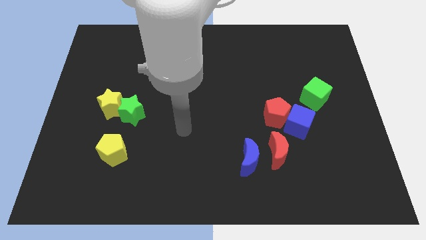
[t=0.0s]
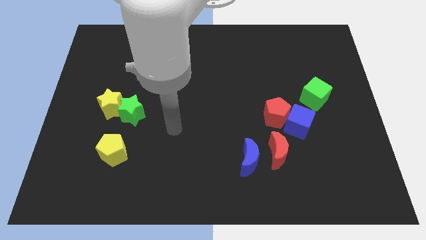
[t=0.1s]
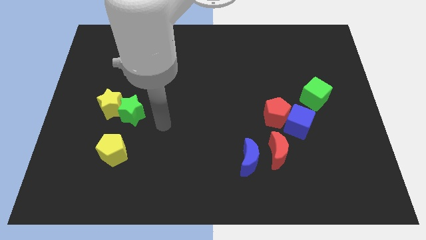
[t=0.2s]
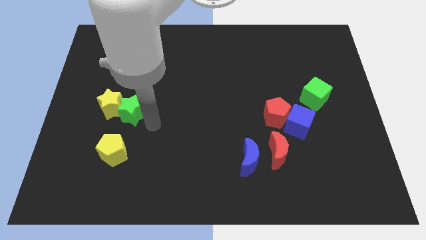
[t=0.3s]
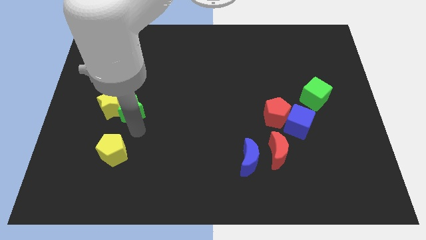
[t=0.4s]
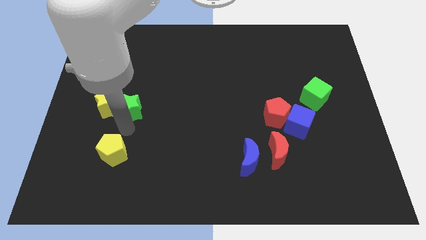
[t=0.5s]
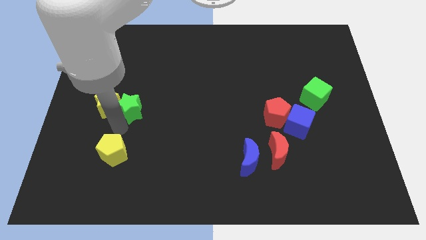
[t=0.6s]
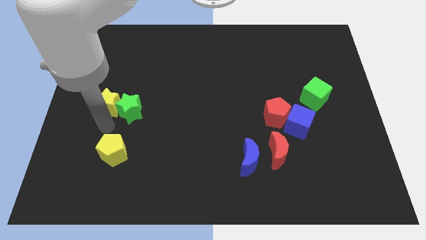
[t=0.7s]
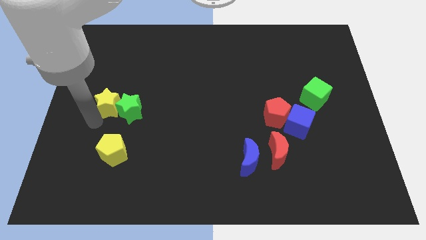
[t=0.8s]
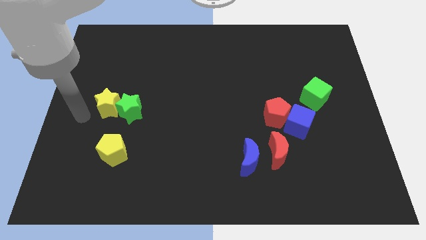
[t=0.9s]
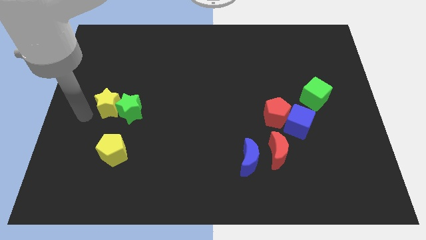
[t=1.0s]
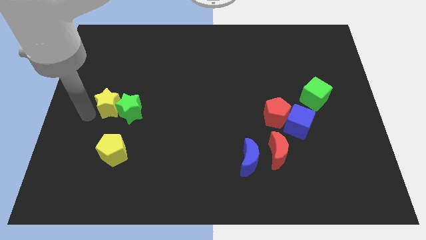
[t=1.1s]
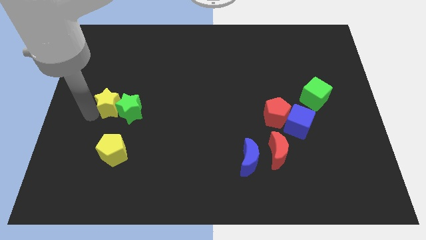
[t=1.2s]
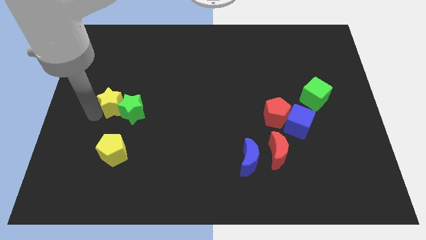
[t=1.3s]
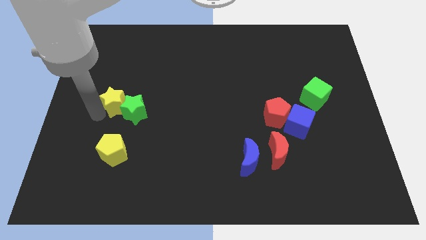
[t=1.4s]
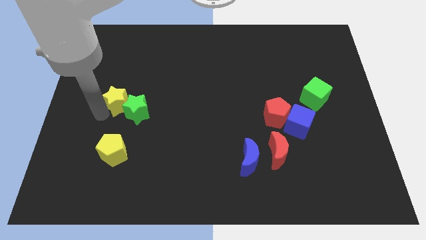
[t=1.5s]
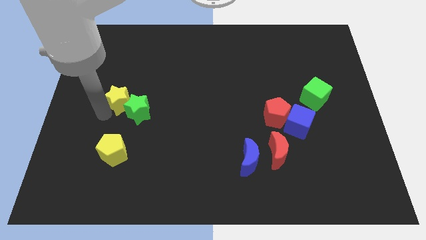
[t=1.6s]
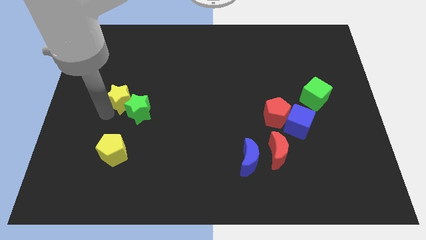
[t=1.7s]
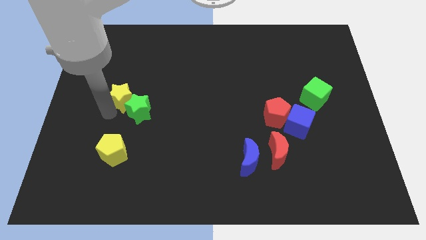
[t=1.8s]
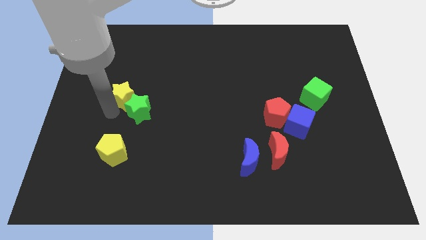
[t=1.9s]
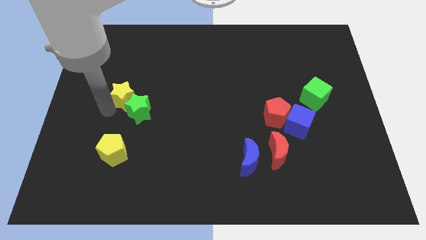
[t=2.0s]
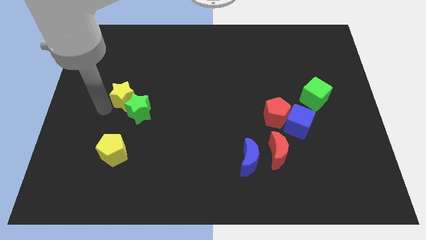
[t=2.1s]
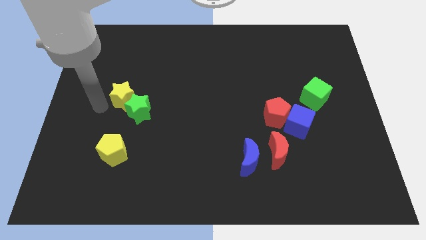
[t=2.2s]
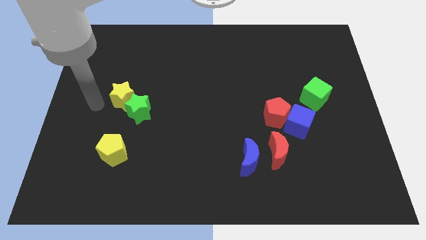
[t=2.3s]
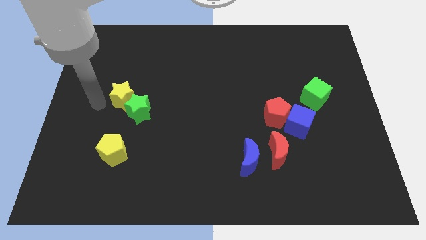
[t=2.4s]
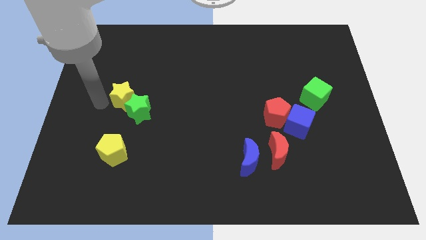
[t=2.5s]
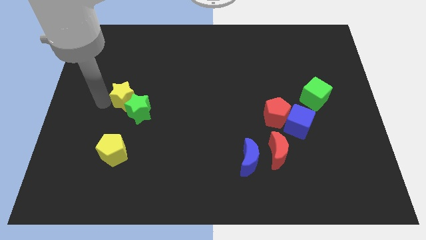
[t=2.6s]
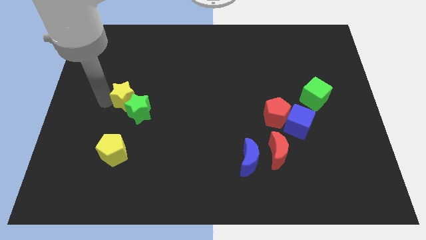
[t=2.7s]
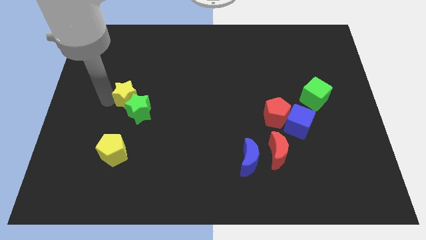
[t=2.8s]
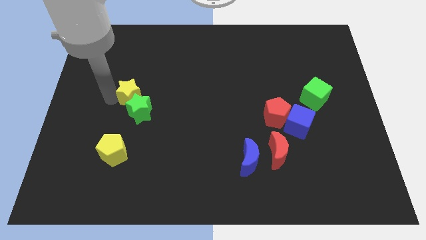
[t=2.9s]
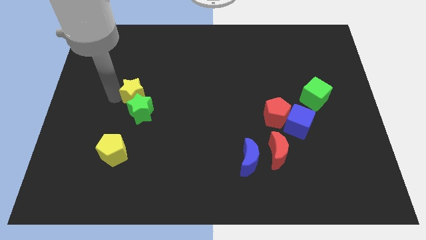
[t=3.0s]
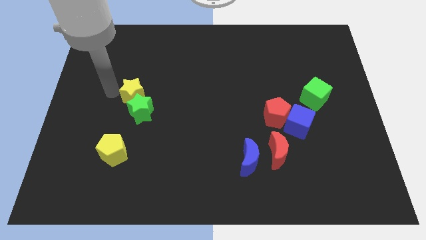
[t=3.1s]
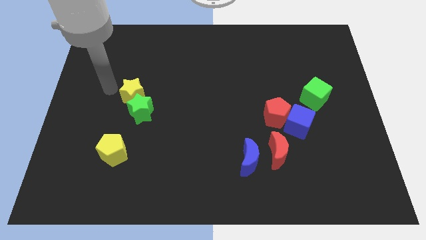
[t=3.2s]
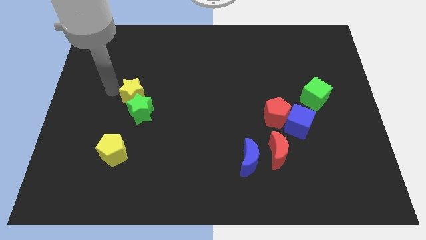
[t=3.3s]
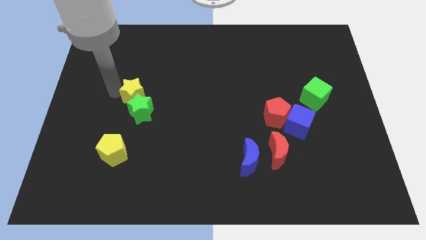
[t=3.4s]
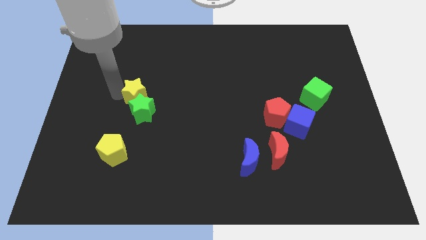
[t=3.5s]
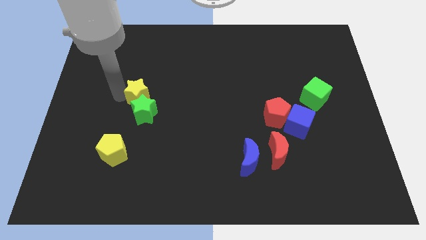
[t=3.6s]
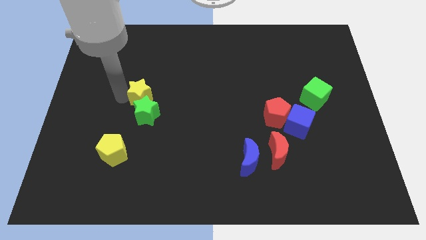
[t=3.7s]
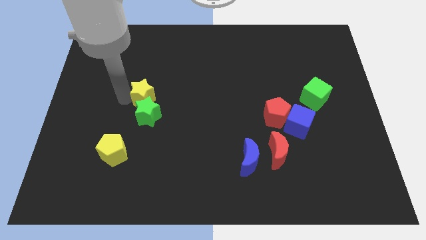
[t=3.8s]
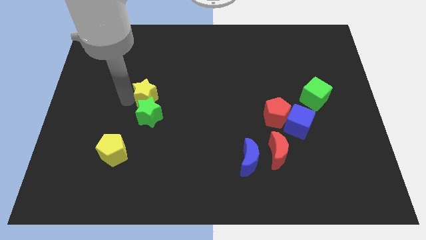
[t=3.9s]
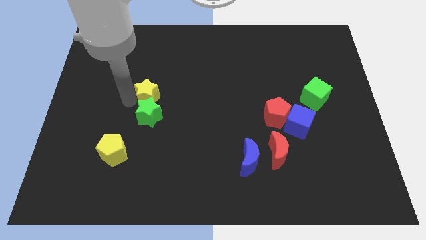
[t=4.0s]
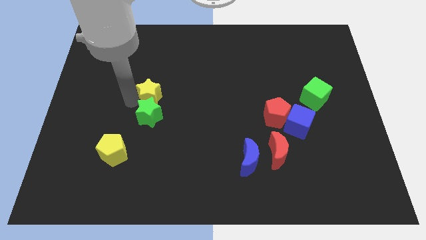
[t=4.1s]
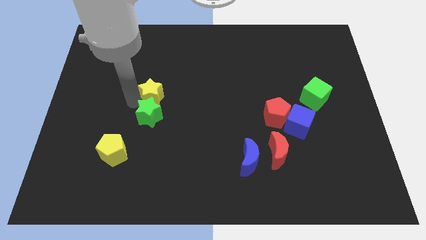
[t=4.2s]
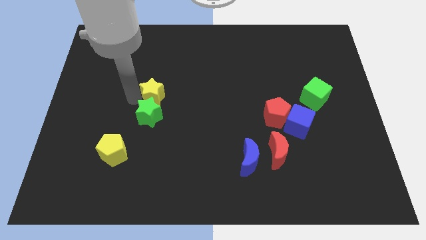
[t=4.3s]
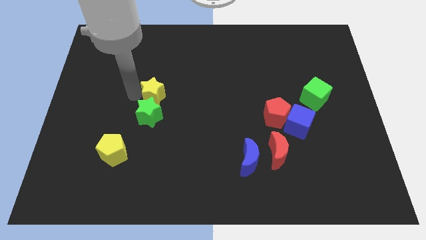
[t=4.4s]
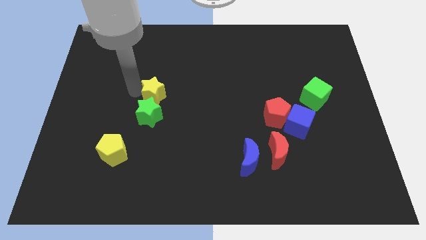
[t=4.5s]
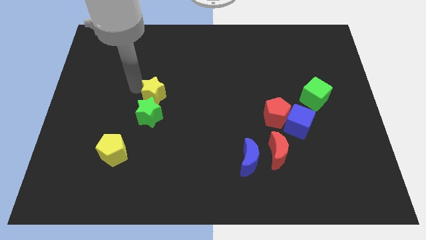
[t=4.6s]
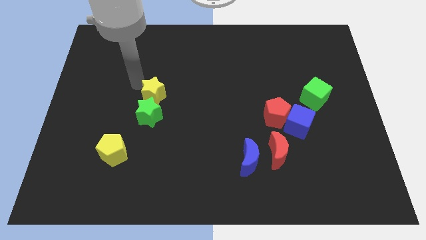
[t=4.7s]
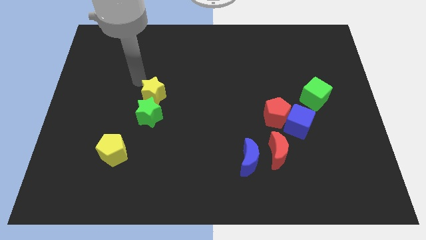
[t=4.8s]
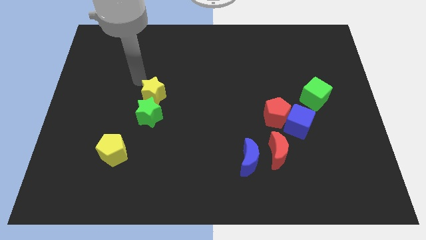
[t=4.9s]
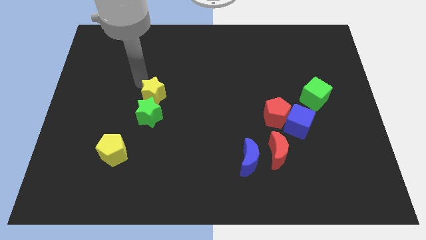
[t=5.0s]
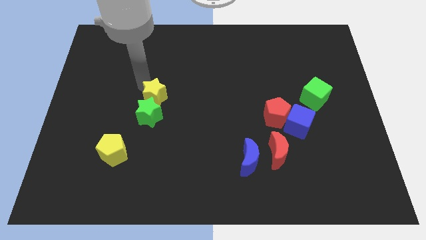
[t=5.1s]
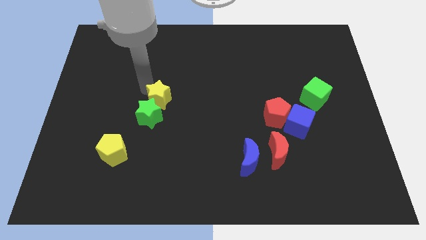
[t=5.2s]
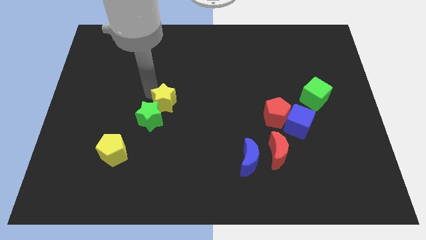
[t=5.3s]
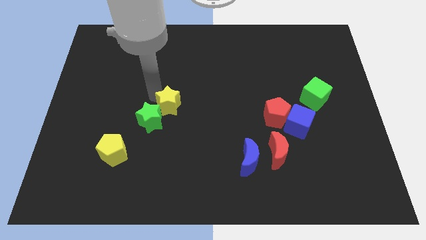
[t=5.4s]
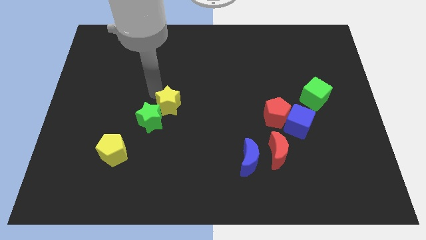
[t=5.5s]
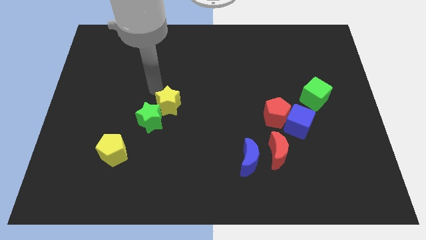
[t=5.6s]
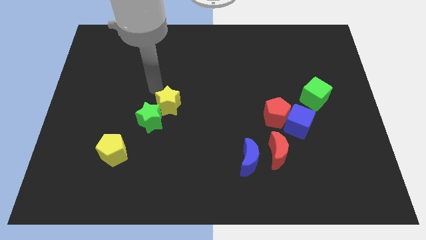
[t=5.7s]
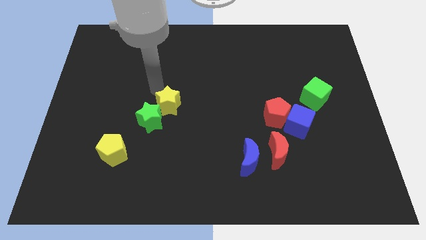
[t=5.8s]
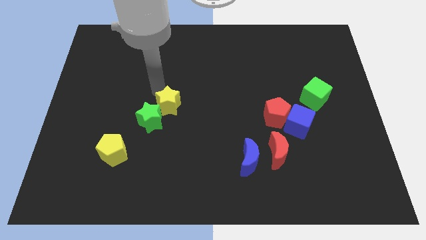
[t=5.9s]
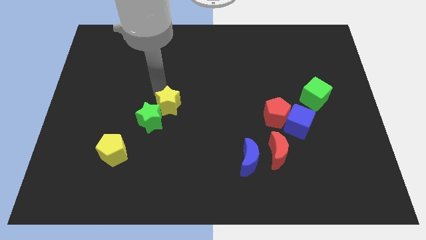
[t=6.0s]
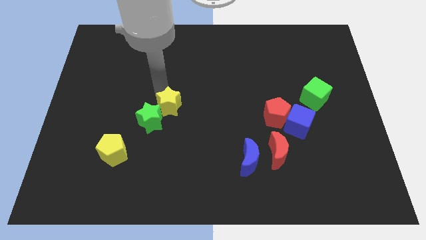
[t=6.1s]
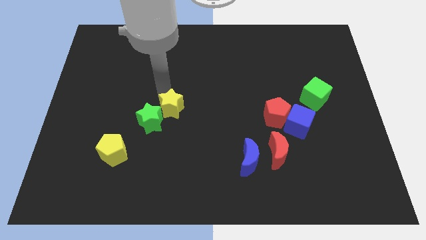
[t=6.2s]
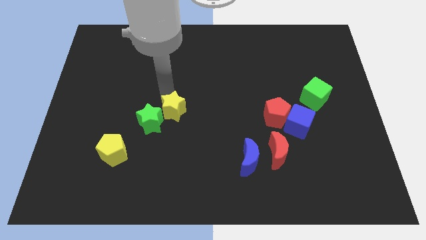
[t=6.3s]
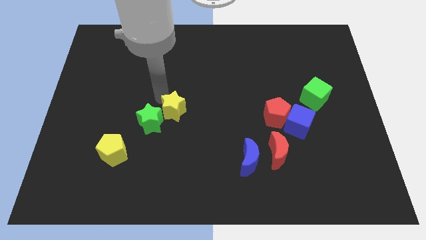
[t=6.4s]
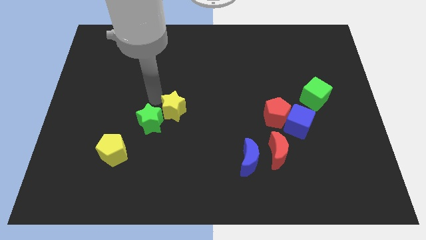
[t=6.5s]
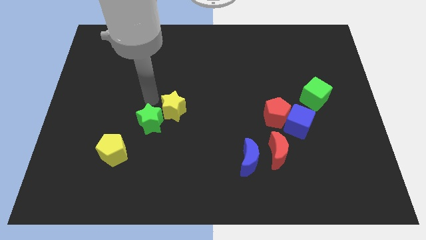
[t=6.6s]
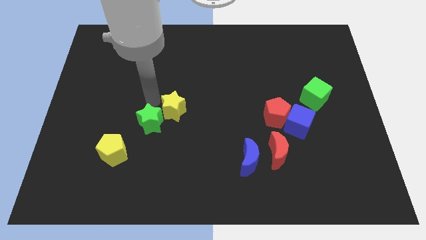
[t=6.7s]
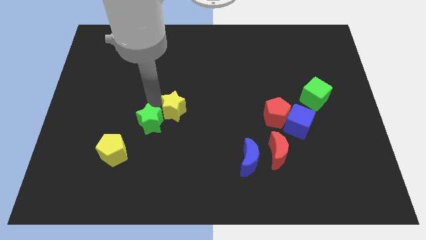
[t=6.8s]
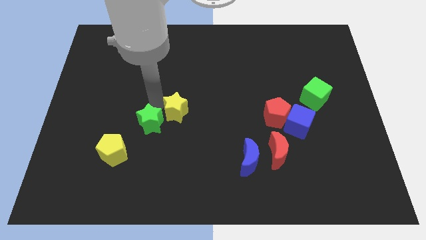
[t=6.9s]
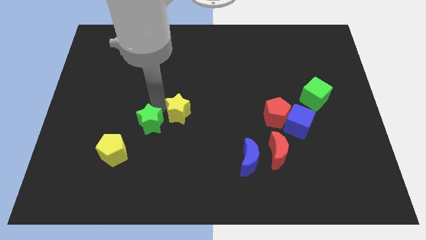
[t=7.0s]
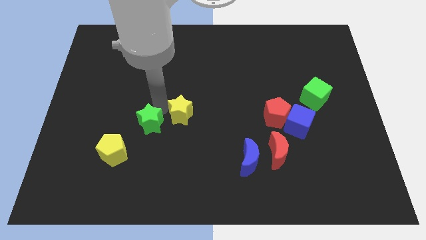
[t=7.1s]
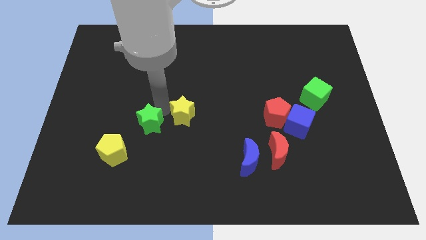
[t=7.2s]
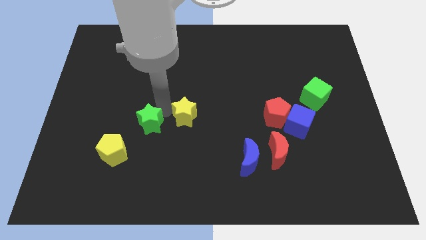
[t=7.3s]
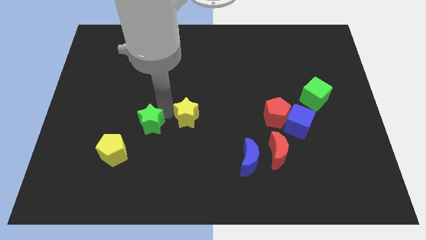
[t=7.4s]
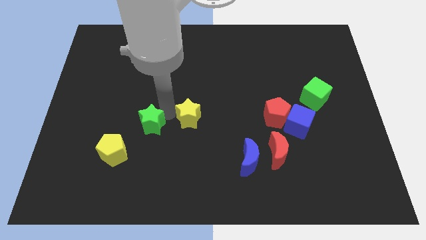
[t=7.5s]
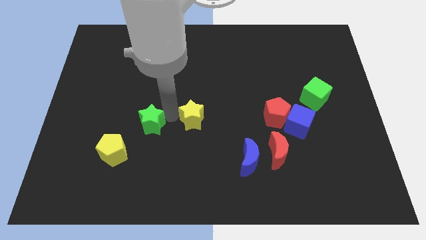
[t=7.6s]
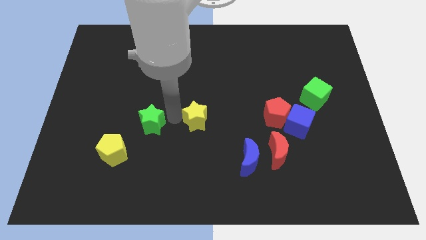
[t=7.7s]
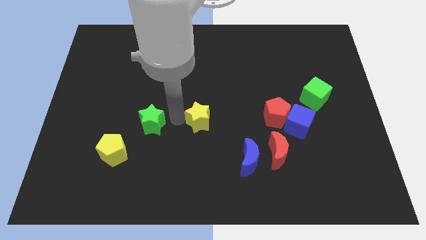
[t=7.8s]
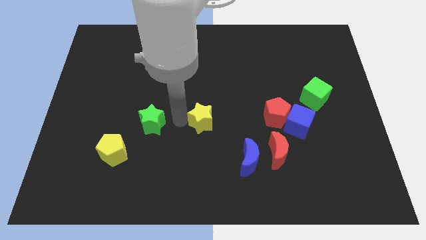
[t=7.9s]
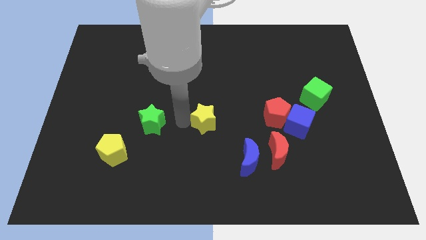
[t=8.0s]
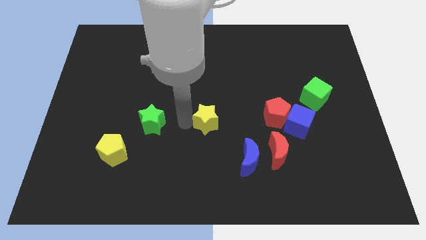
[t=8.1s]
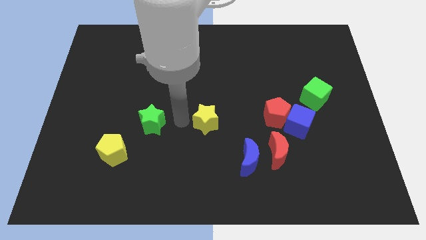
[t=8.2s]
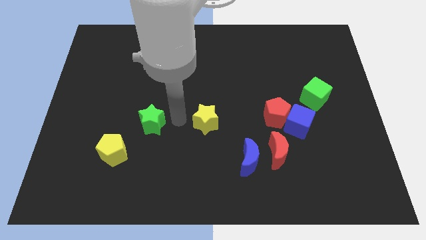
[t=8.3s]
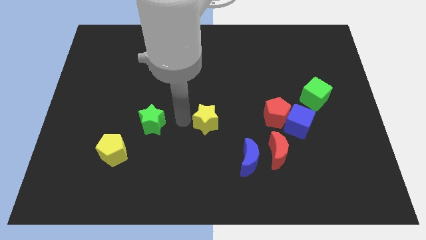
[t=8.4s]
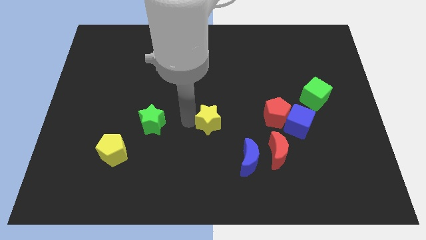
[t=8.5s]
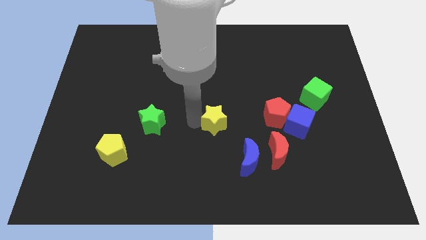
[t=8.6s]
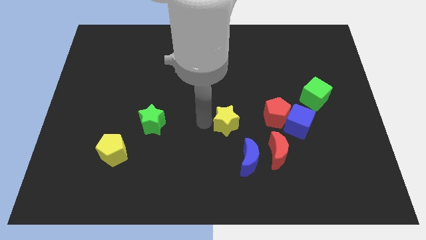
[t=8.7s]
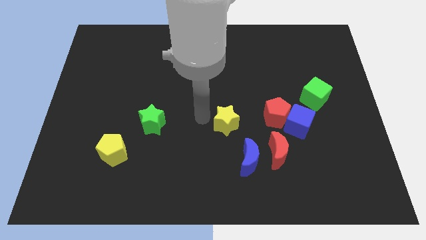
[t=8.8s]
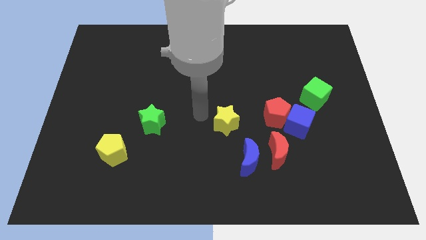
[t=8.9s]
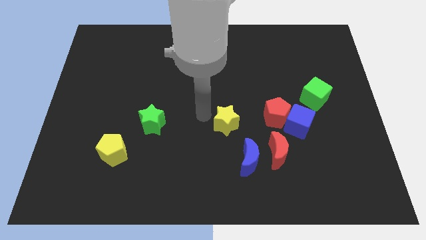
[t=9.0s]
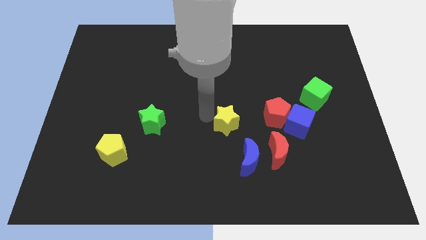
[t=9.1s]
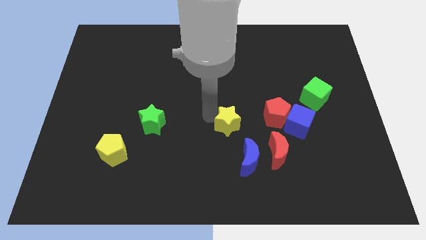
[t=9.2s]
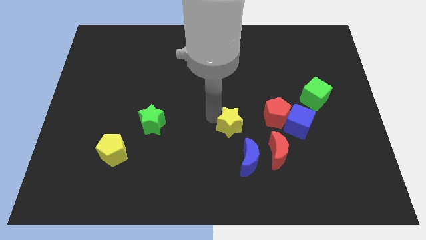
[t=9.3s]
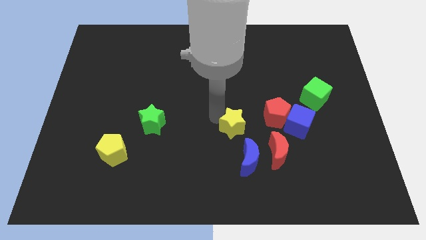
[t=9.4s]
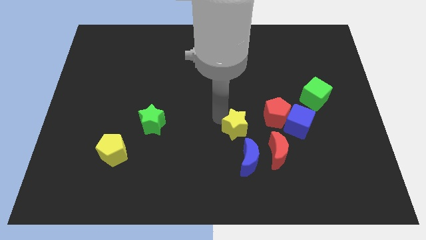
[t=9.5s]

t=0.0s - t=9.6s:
put the yellow star diagonally down and to the left of the red pentagon
